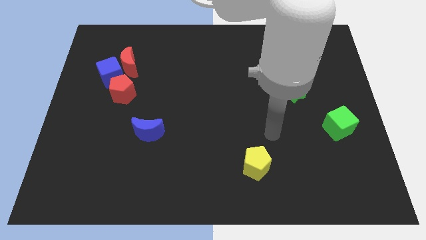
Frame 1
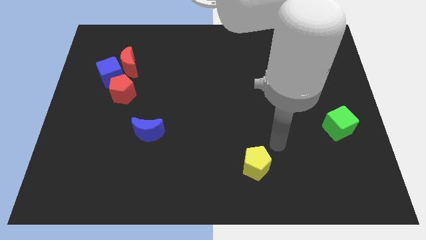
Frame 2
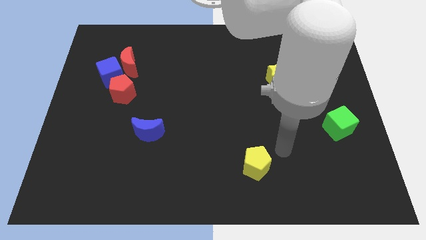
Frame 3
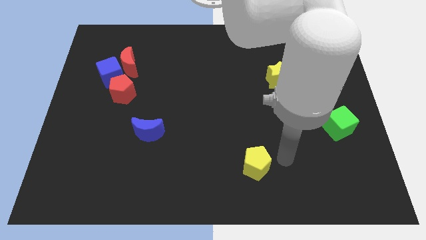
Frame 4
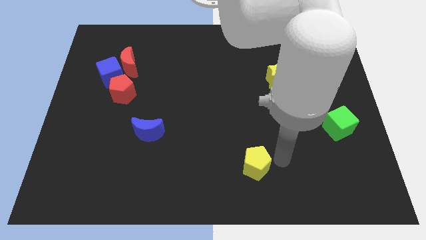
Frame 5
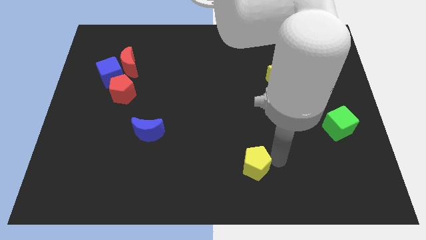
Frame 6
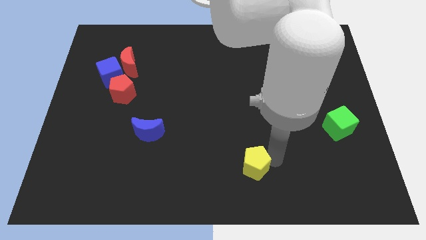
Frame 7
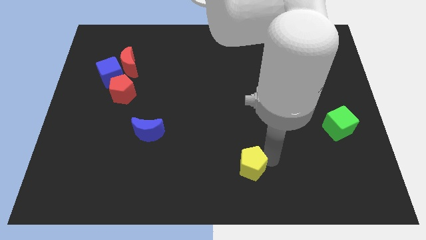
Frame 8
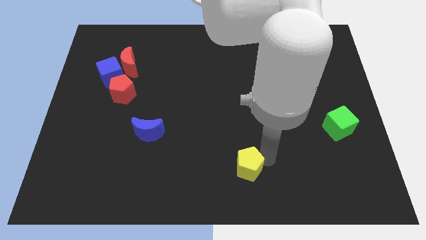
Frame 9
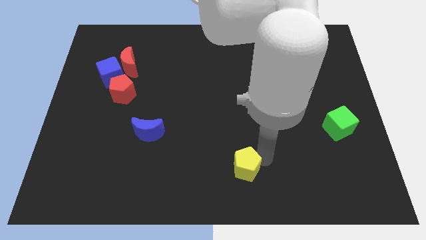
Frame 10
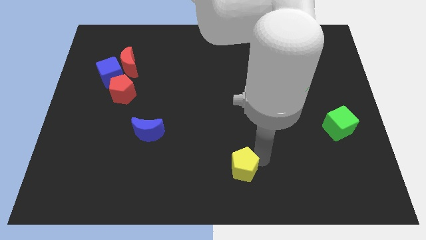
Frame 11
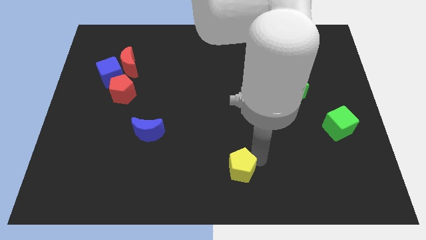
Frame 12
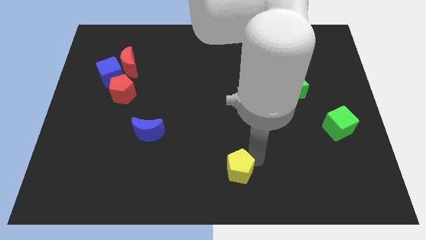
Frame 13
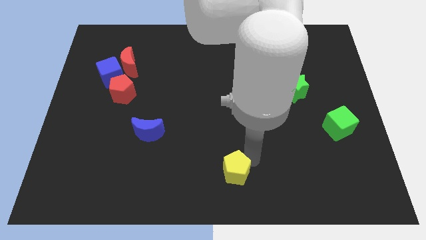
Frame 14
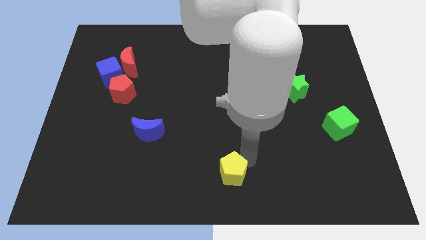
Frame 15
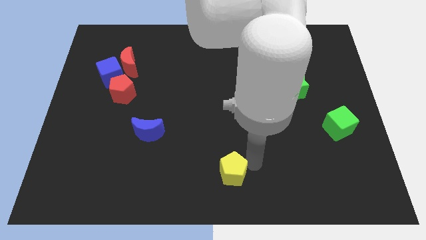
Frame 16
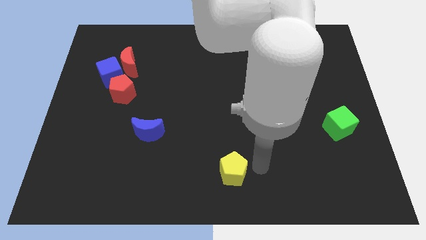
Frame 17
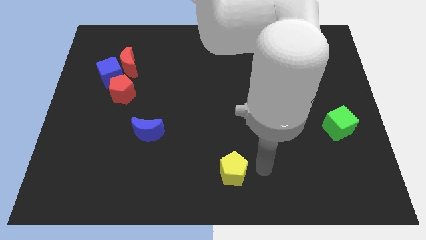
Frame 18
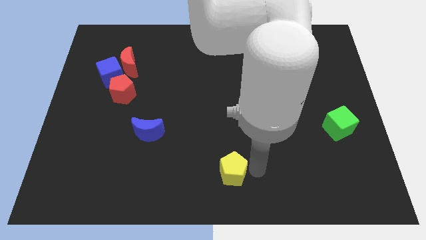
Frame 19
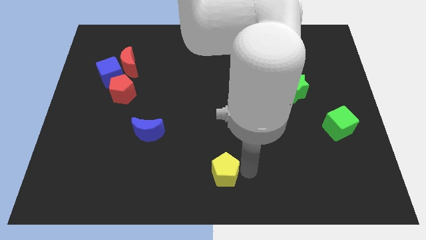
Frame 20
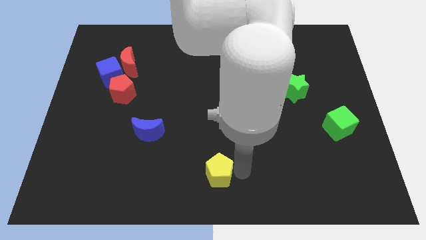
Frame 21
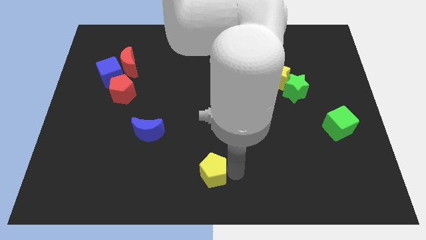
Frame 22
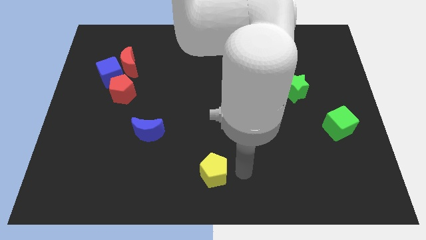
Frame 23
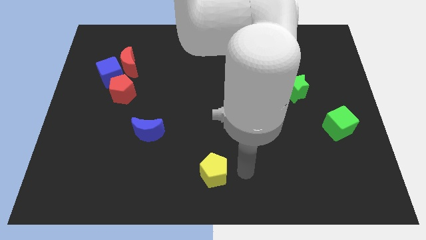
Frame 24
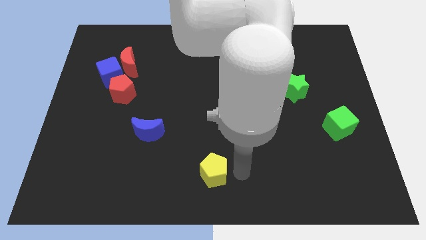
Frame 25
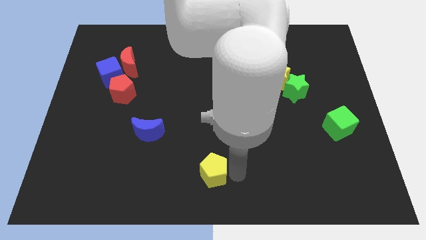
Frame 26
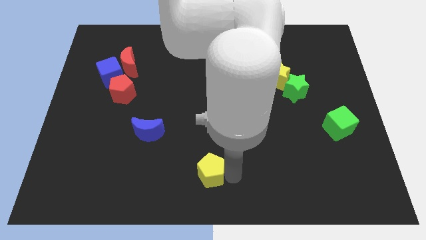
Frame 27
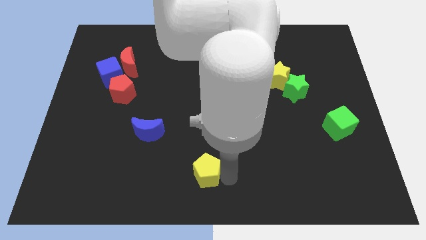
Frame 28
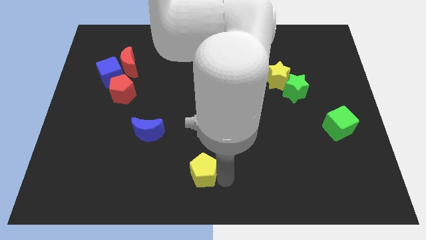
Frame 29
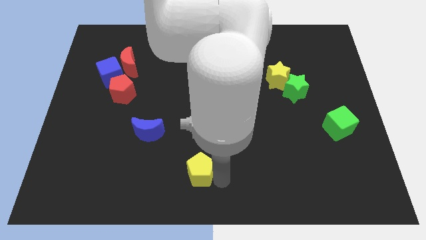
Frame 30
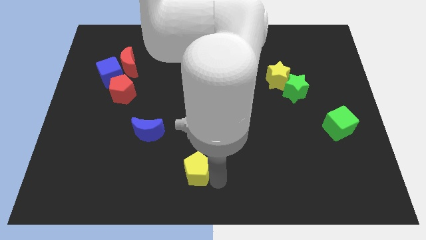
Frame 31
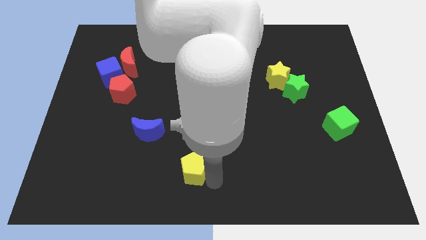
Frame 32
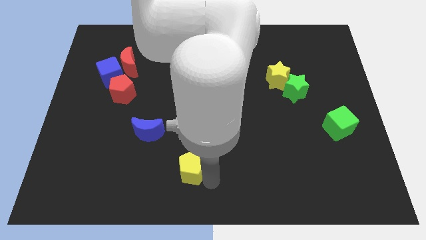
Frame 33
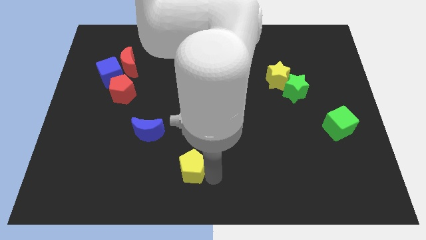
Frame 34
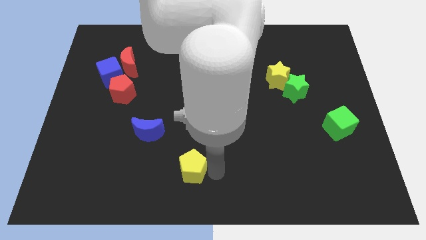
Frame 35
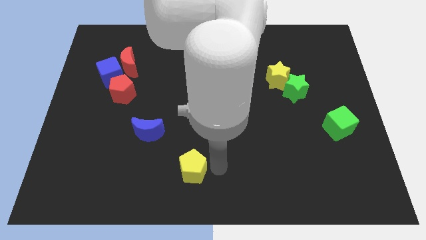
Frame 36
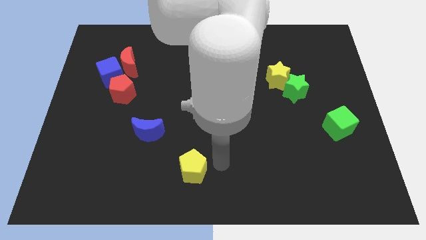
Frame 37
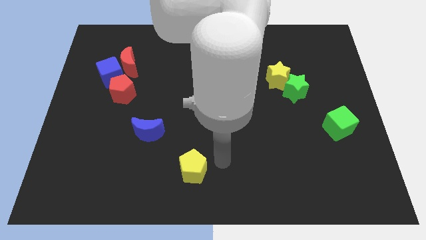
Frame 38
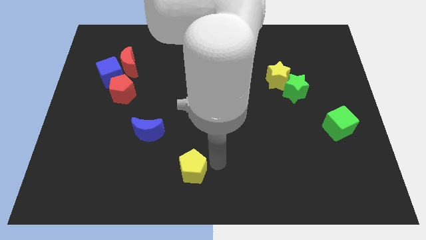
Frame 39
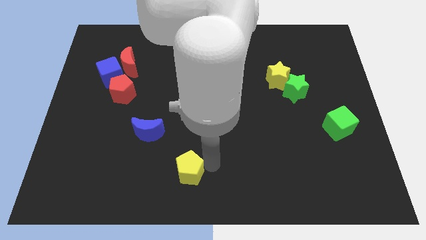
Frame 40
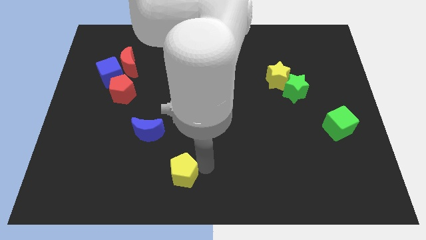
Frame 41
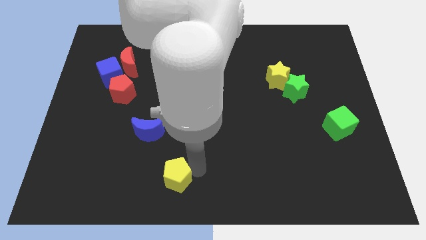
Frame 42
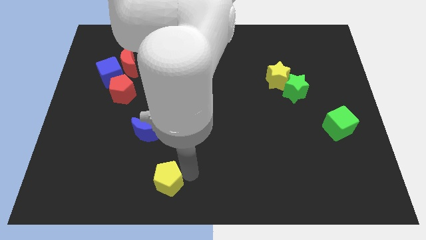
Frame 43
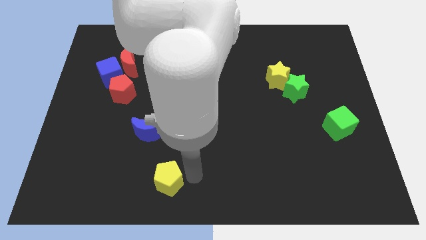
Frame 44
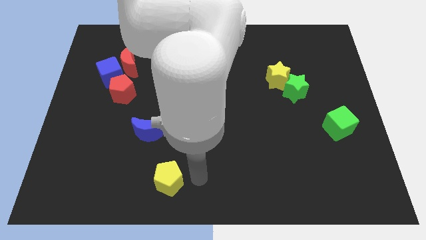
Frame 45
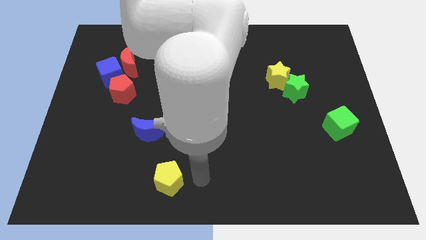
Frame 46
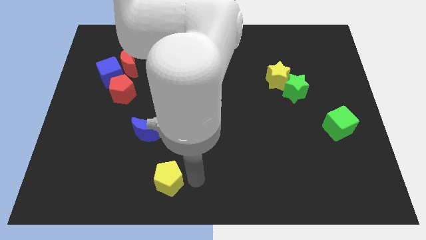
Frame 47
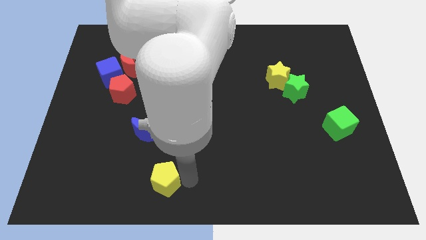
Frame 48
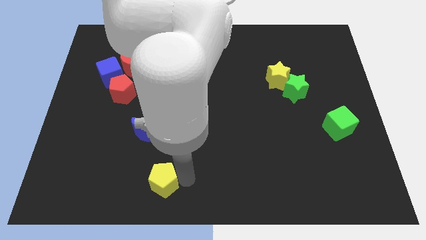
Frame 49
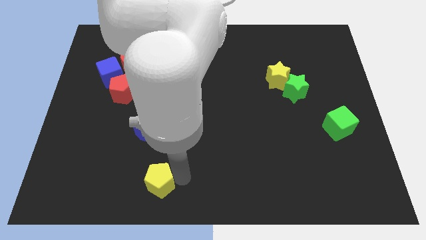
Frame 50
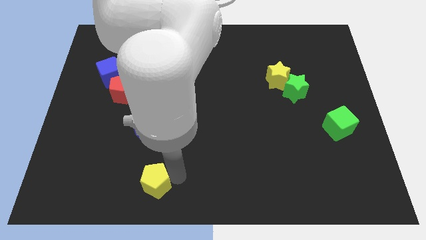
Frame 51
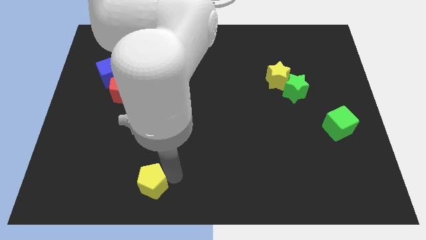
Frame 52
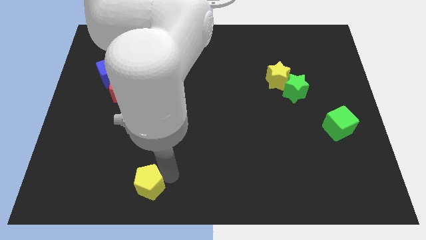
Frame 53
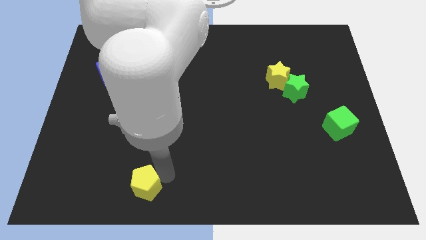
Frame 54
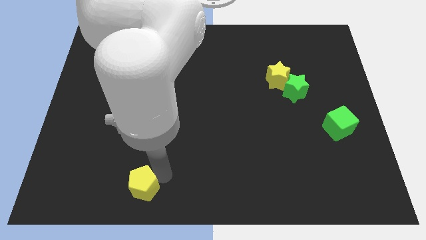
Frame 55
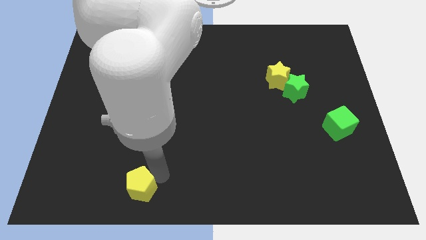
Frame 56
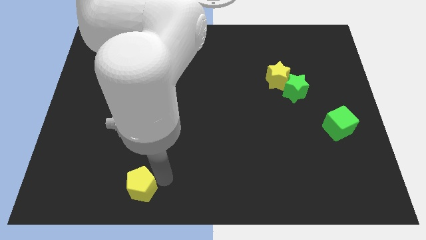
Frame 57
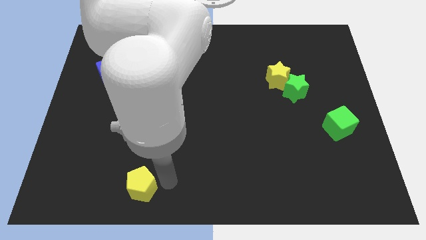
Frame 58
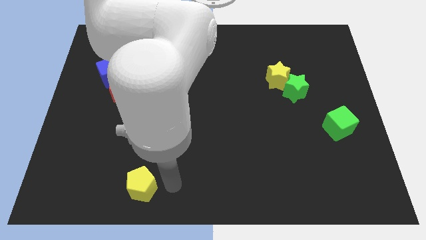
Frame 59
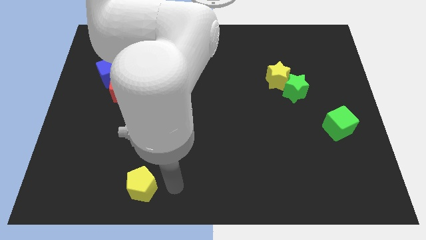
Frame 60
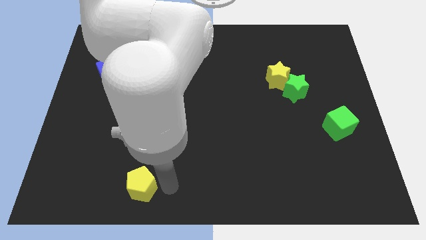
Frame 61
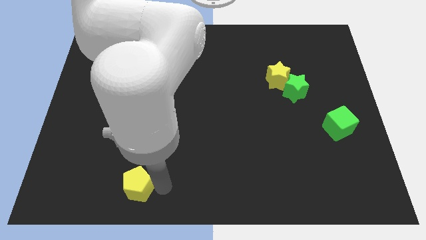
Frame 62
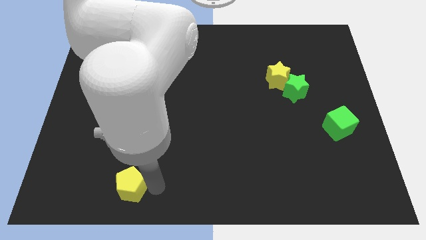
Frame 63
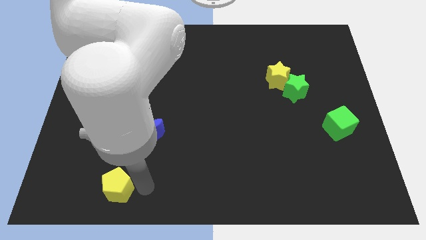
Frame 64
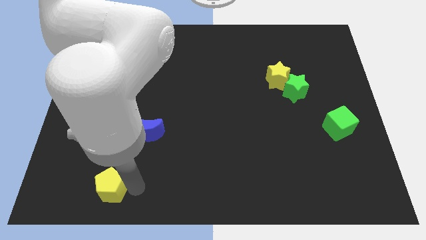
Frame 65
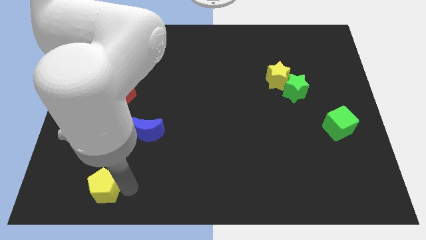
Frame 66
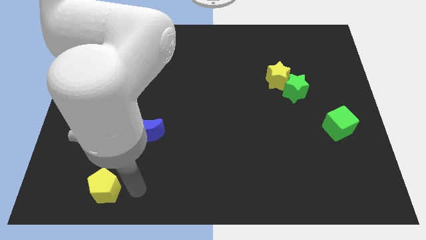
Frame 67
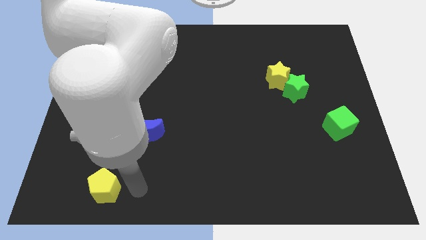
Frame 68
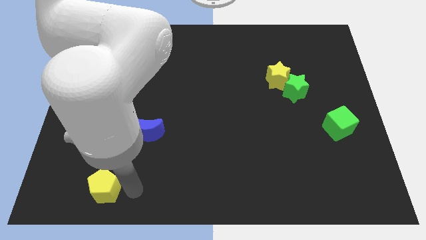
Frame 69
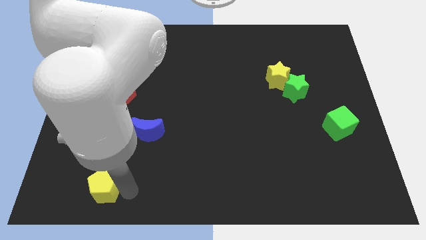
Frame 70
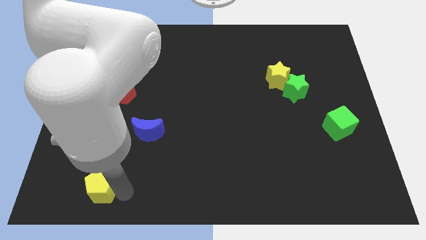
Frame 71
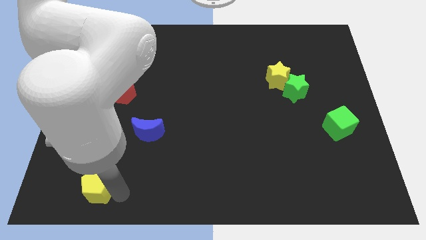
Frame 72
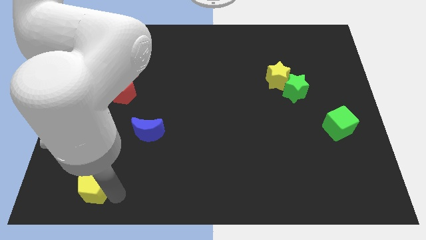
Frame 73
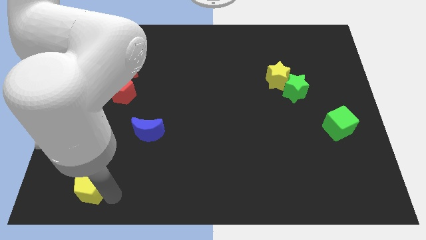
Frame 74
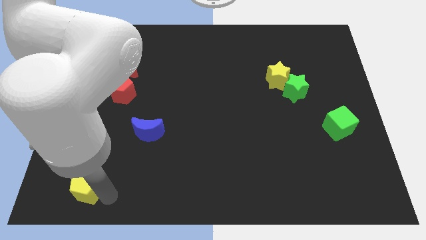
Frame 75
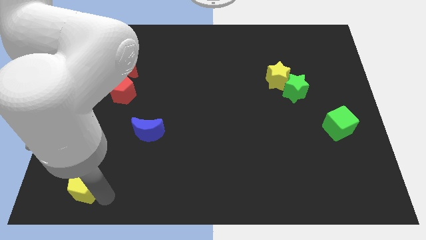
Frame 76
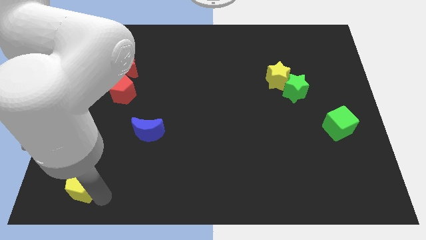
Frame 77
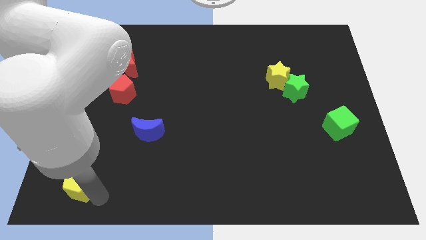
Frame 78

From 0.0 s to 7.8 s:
slide the yellow pentagon to the bottom left corner
